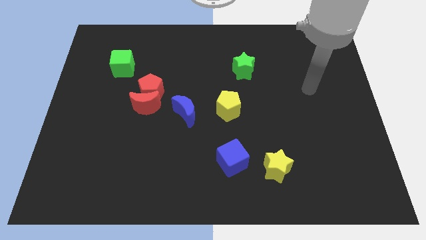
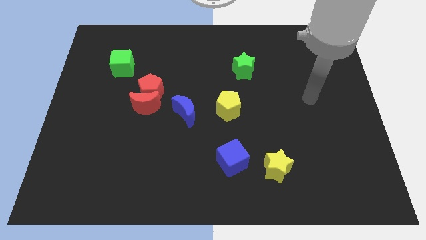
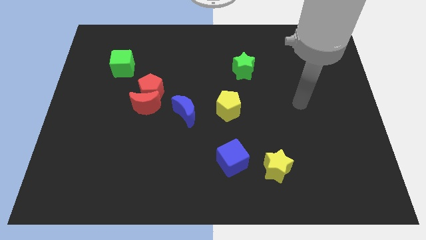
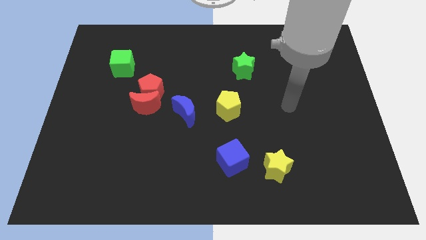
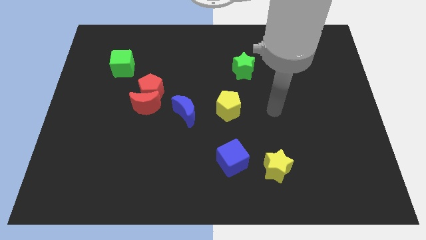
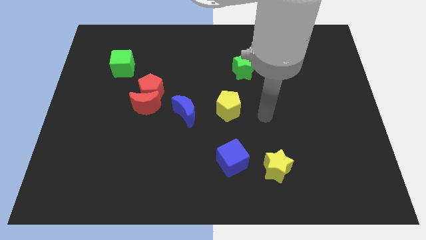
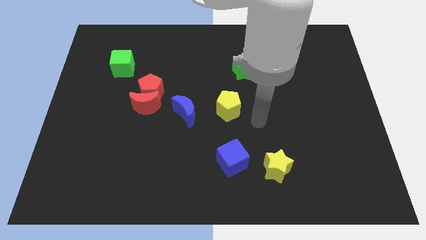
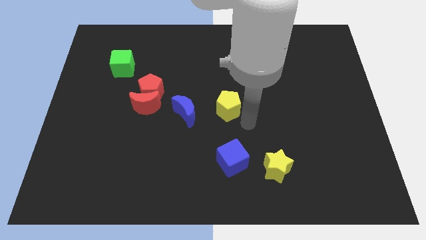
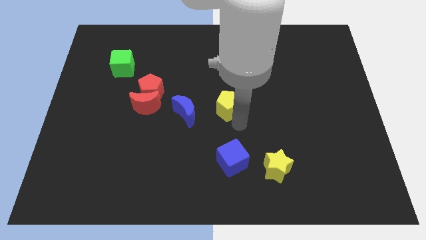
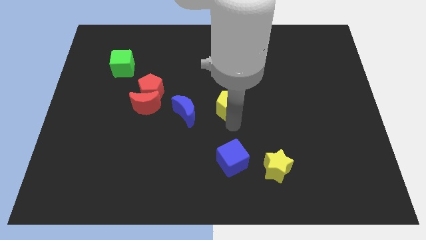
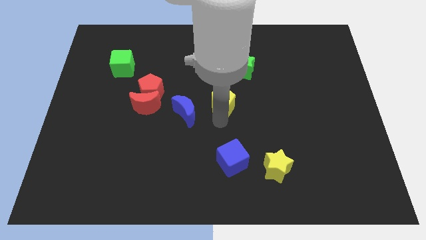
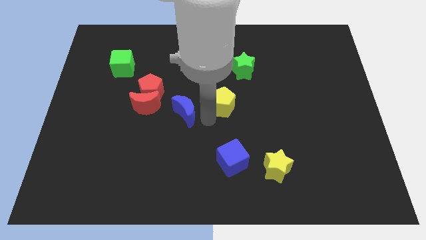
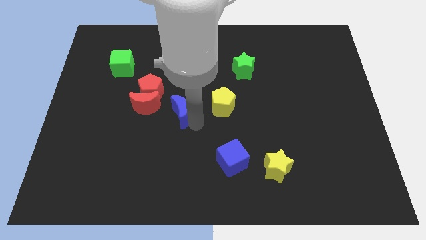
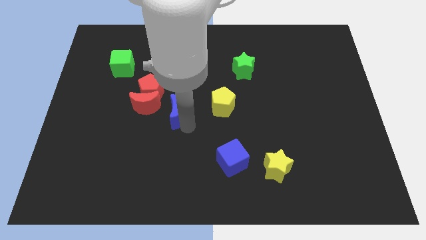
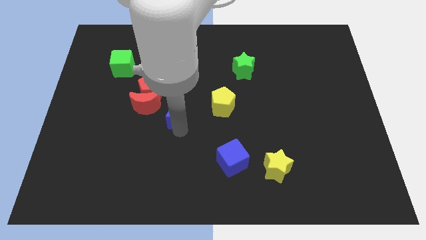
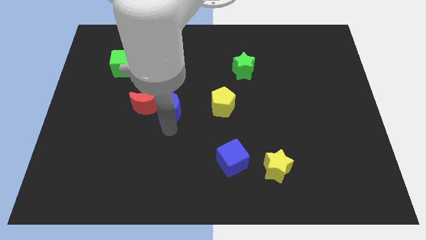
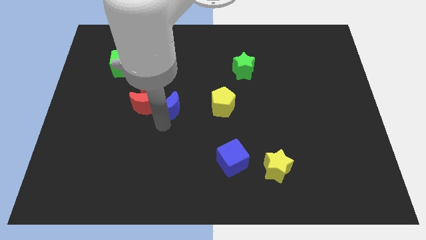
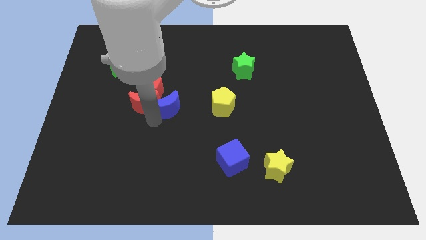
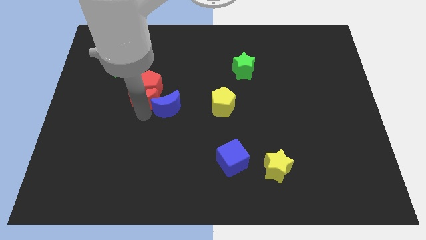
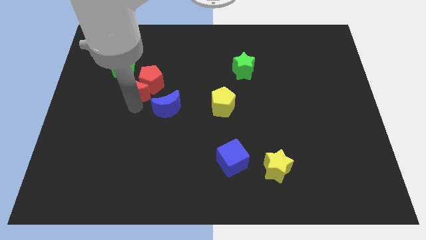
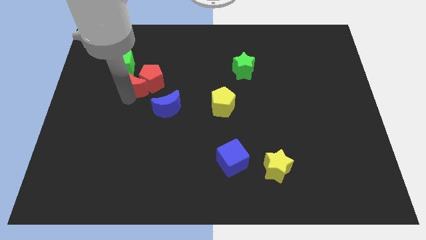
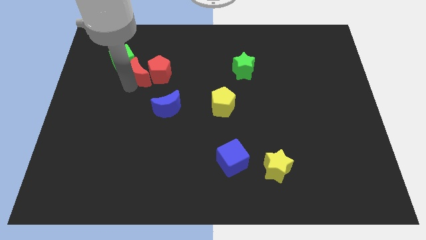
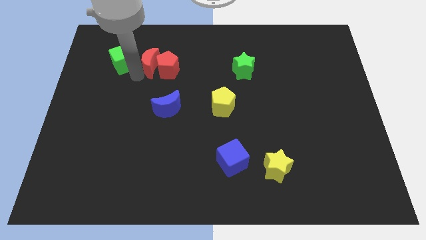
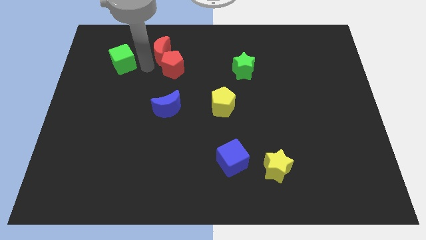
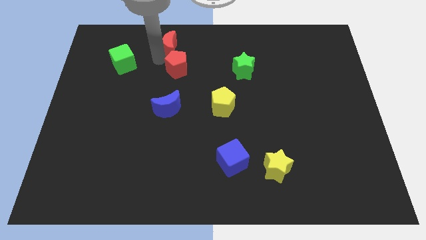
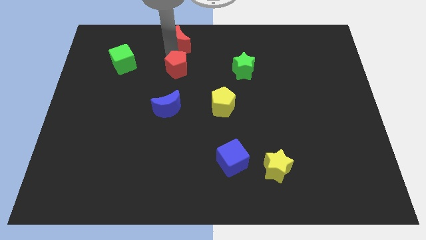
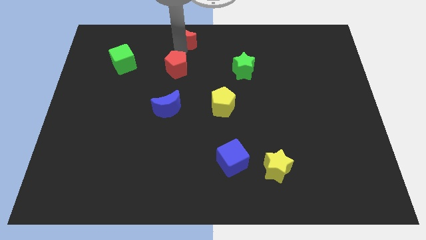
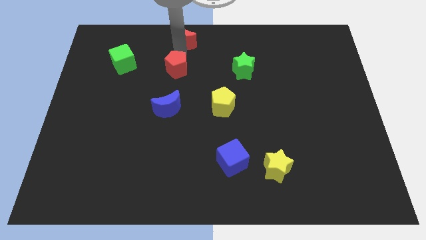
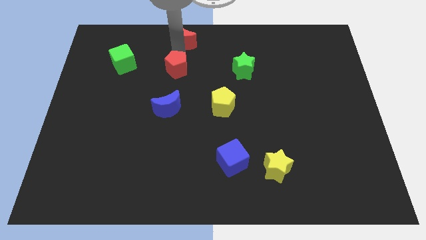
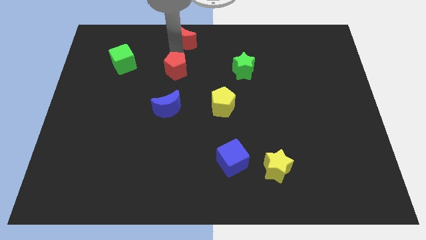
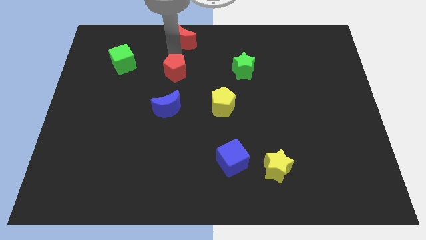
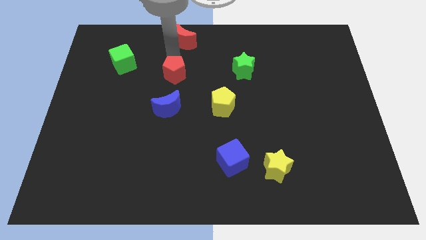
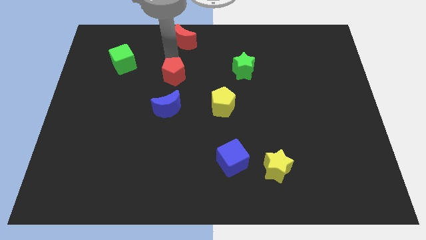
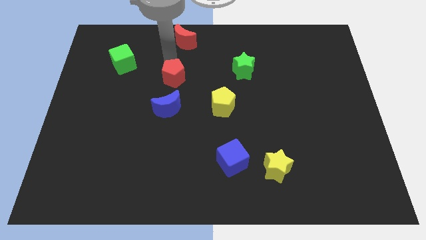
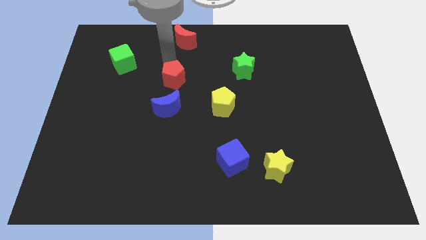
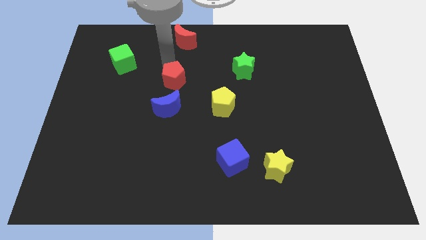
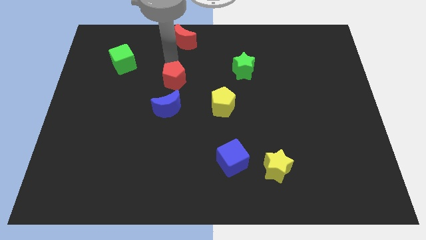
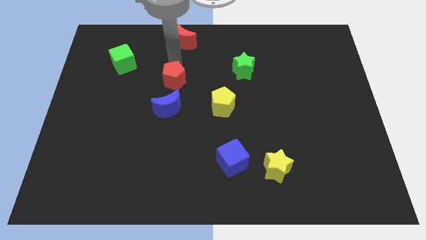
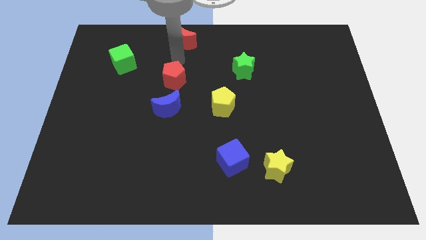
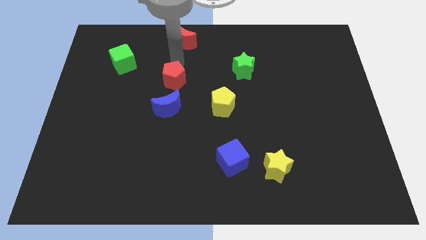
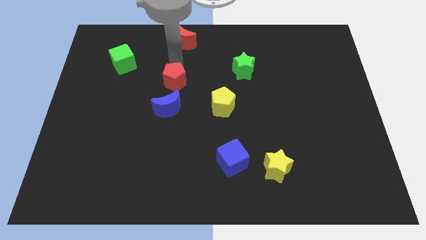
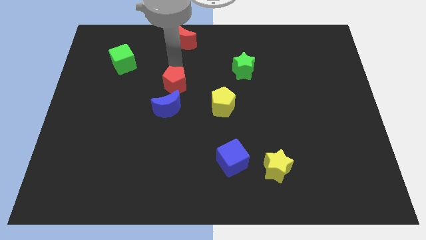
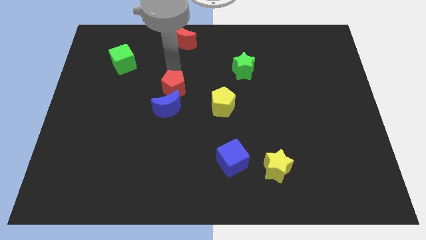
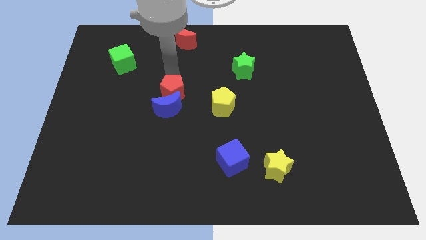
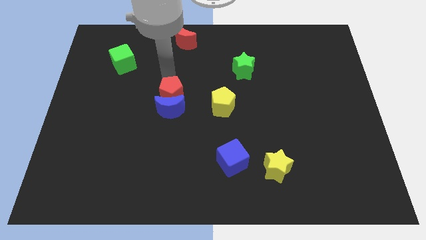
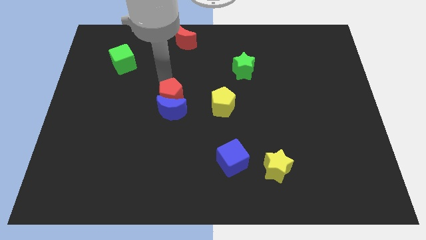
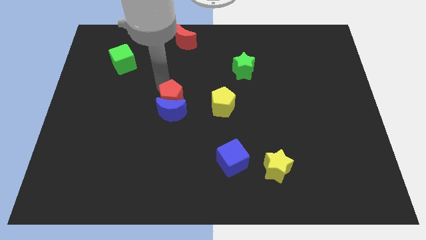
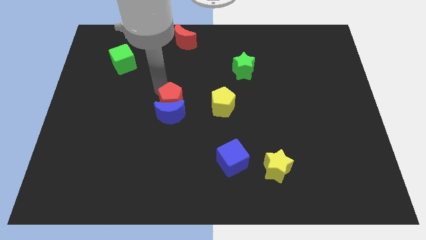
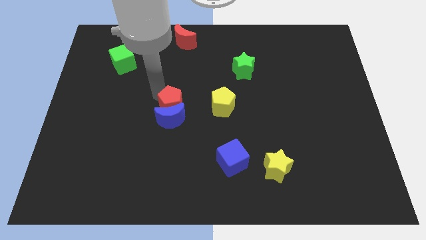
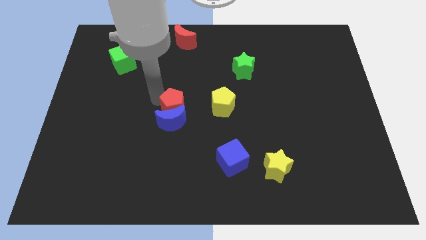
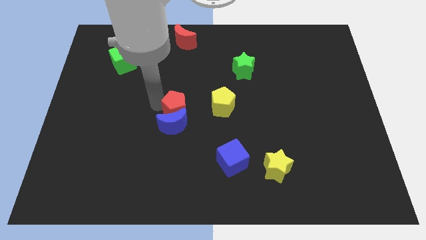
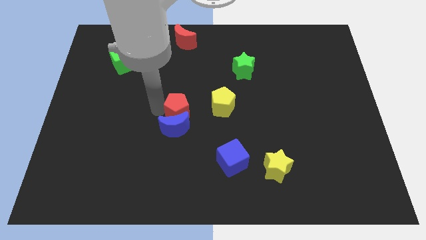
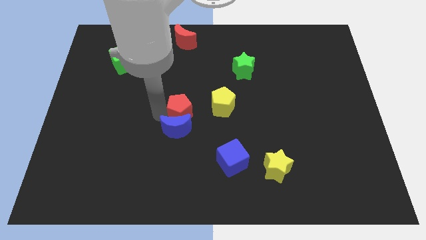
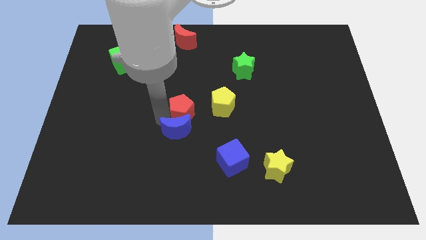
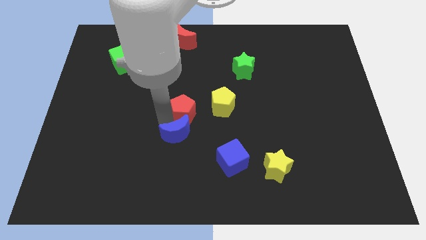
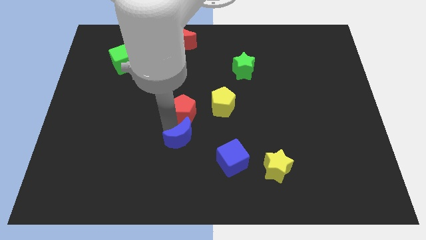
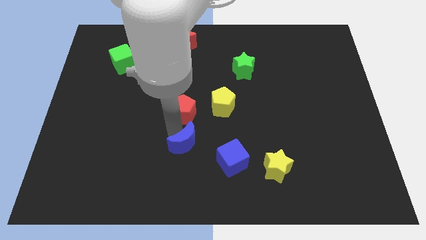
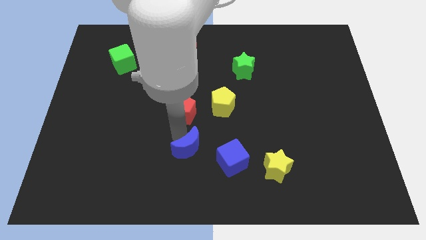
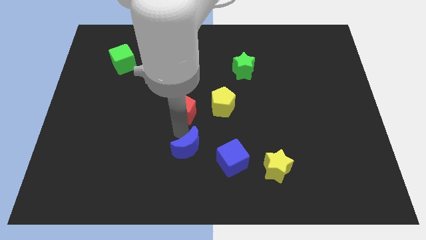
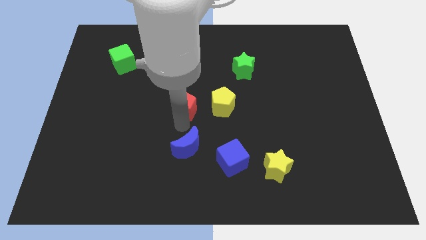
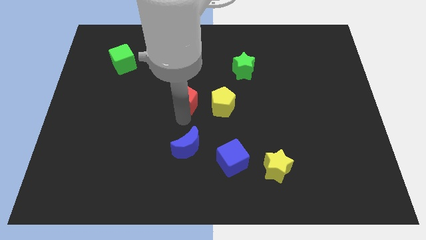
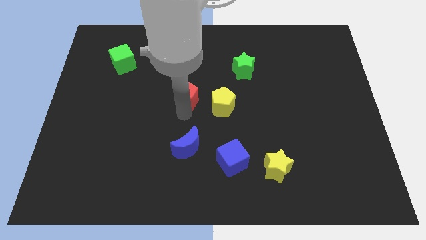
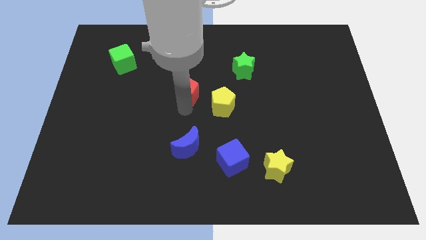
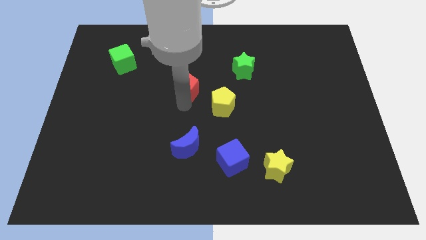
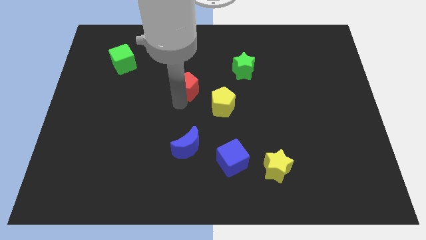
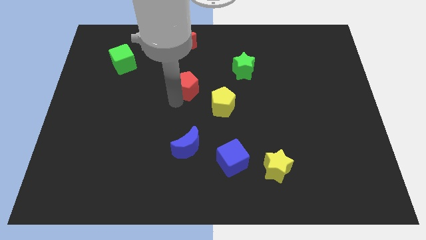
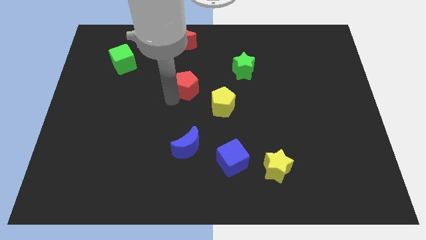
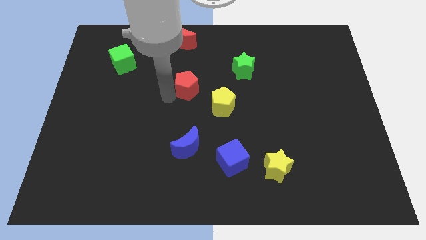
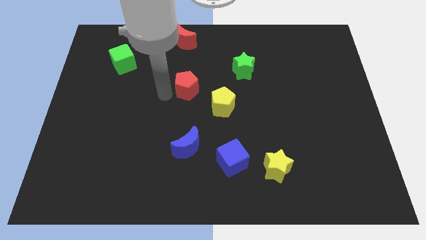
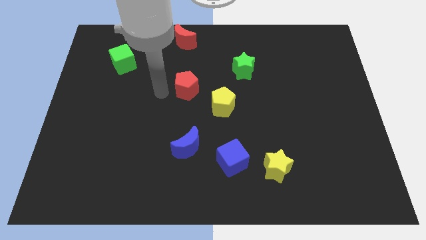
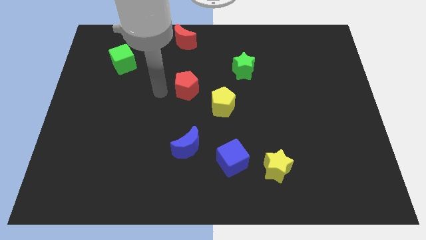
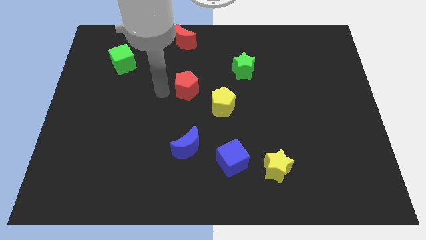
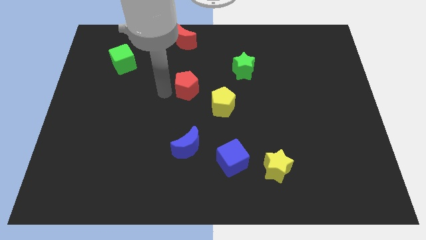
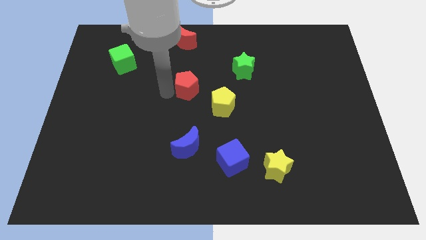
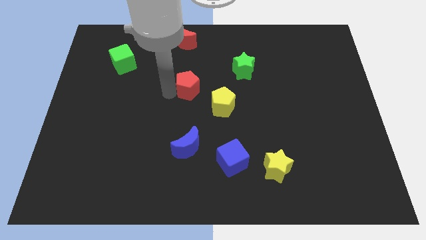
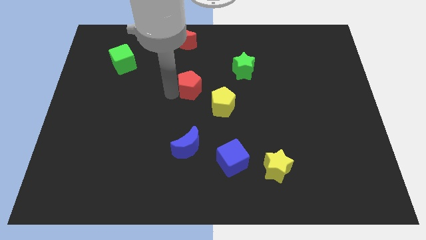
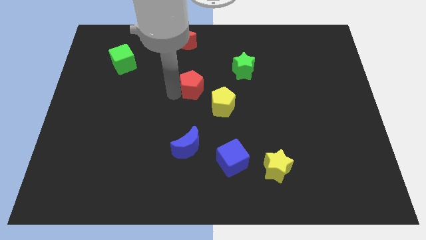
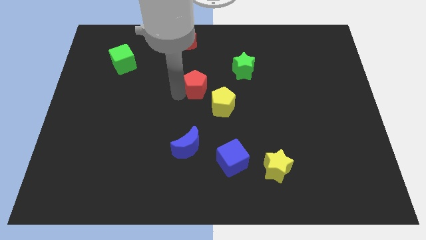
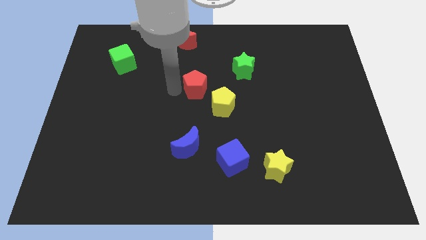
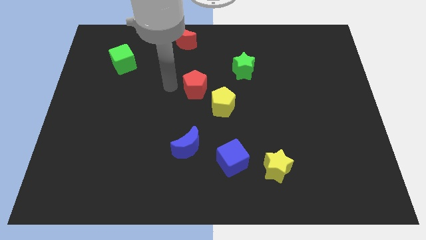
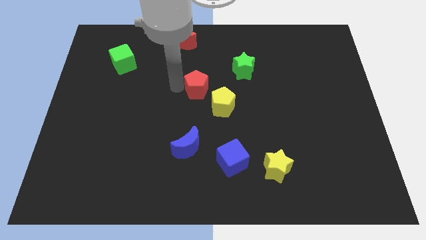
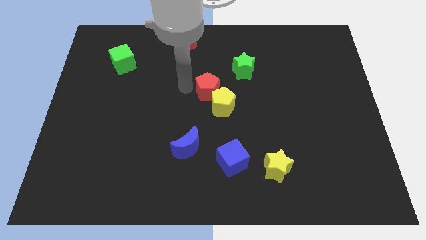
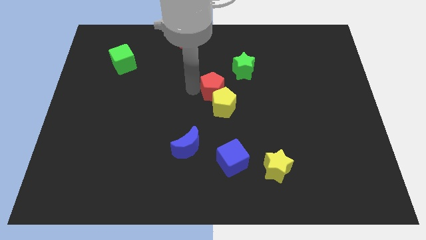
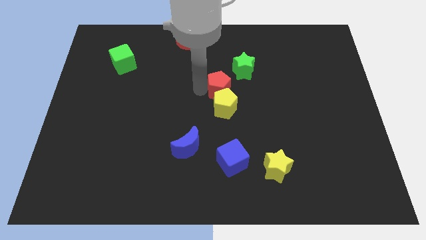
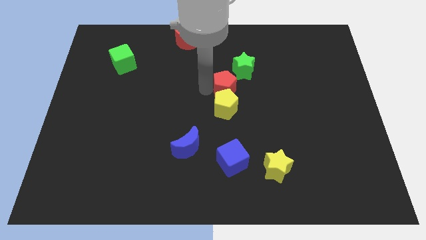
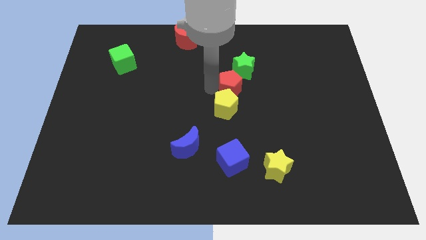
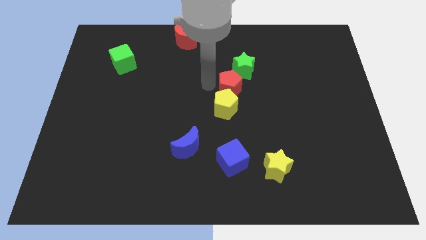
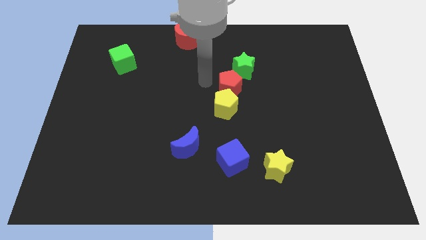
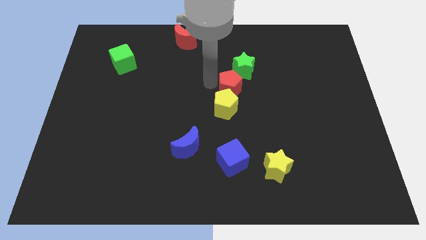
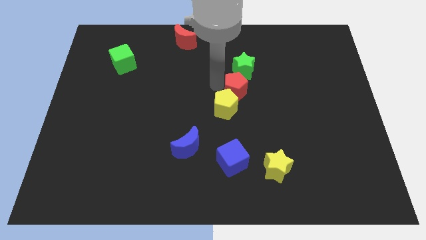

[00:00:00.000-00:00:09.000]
slide the red pentagon to the right
